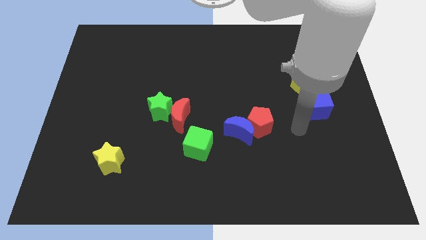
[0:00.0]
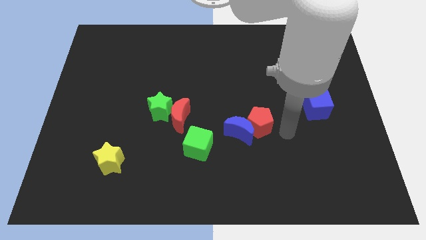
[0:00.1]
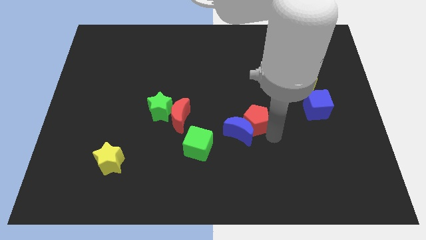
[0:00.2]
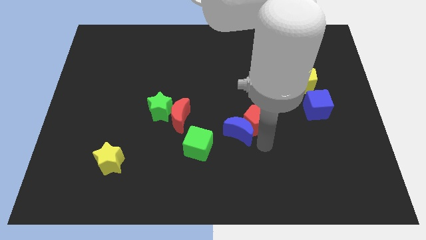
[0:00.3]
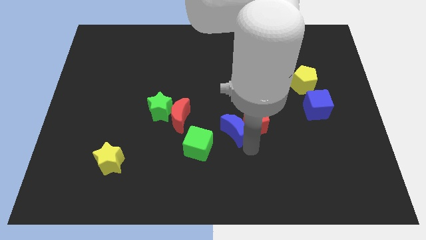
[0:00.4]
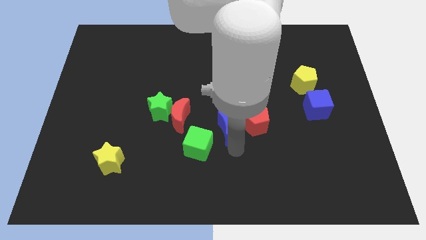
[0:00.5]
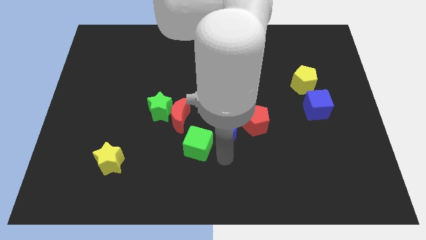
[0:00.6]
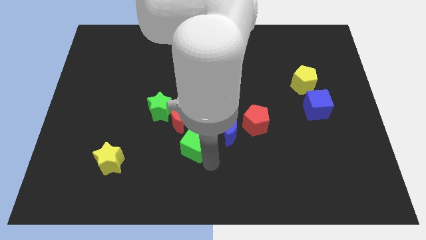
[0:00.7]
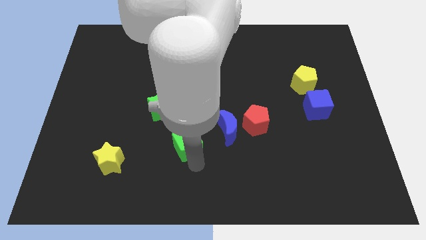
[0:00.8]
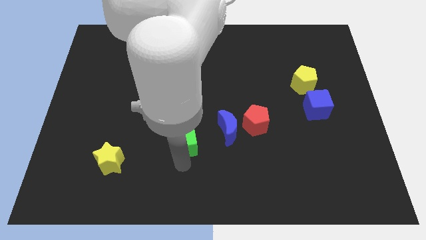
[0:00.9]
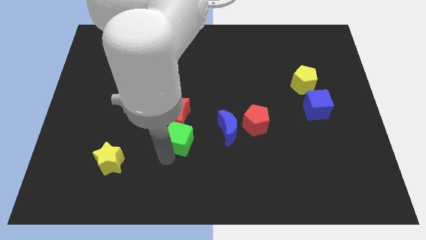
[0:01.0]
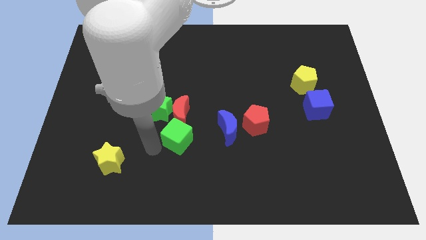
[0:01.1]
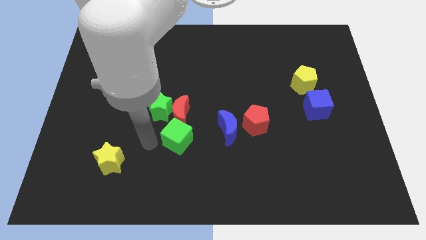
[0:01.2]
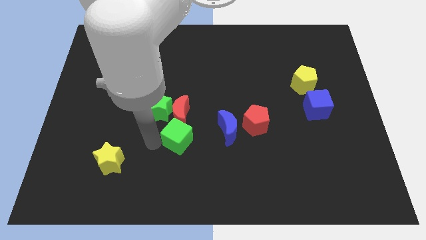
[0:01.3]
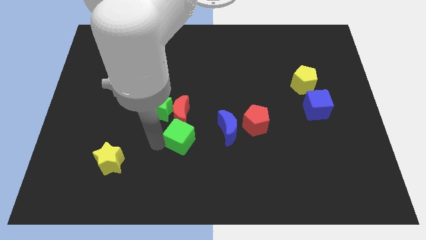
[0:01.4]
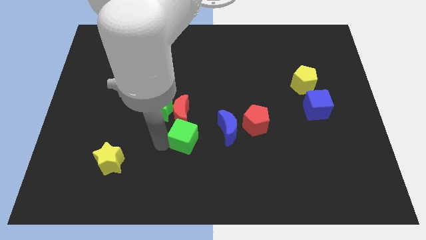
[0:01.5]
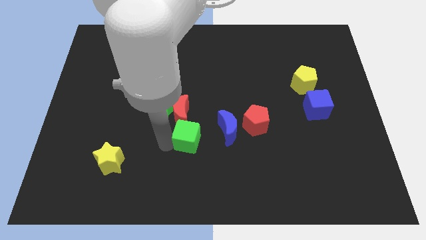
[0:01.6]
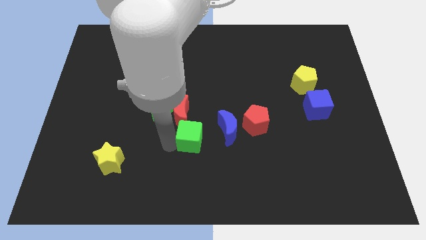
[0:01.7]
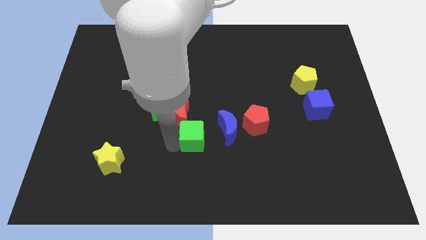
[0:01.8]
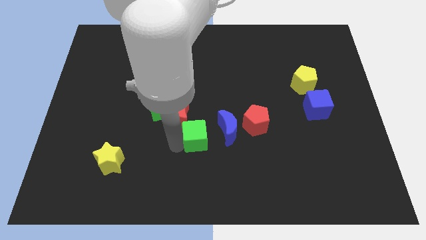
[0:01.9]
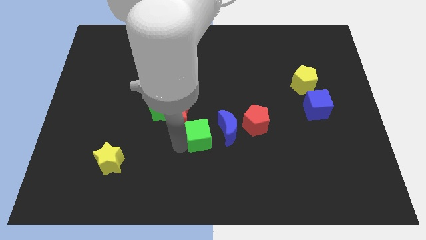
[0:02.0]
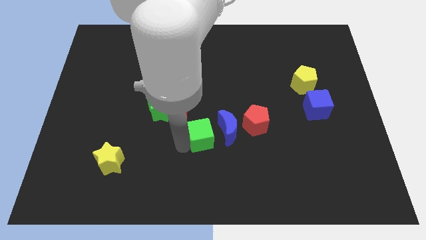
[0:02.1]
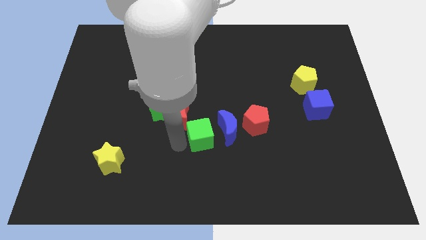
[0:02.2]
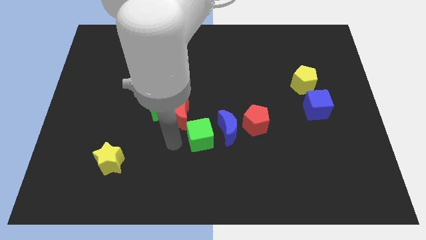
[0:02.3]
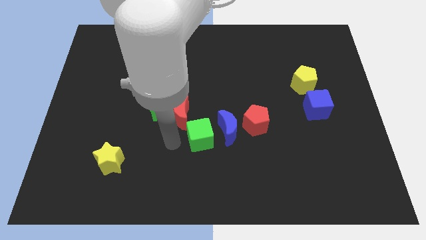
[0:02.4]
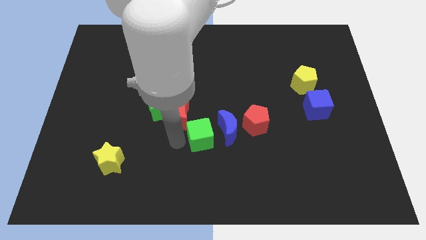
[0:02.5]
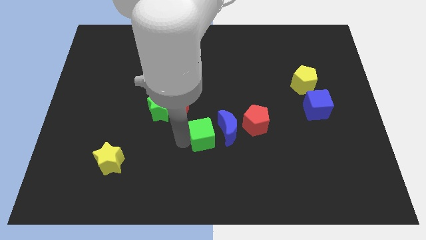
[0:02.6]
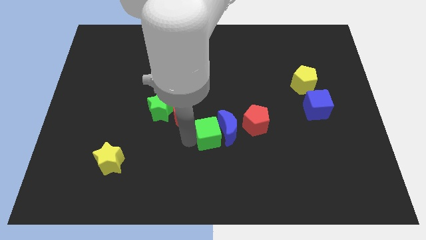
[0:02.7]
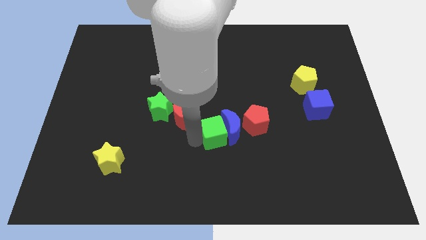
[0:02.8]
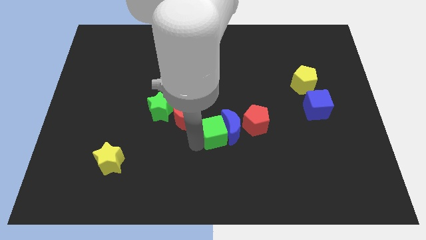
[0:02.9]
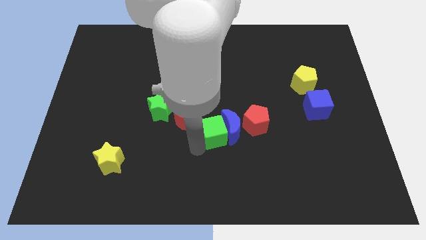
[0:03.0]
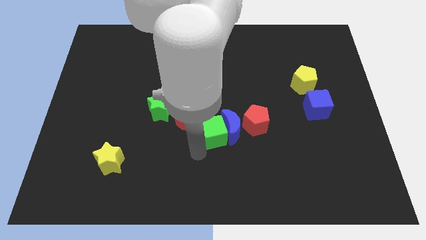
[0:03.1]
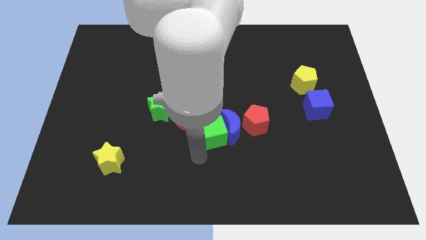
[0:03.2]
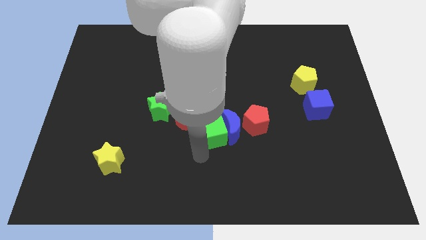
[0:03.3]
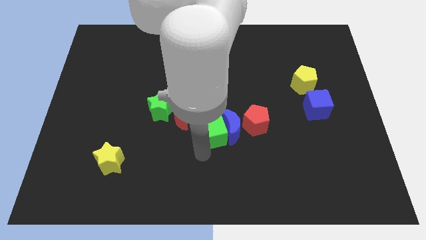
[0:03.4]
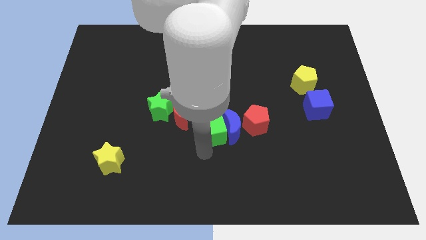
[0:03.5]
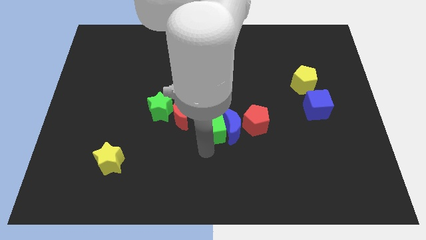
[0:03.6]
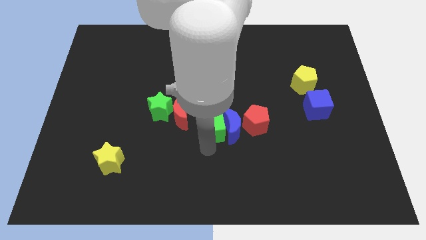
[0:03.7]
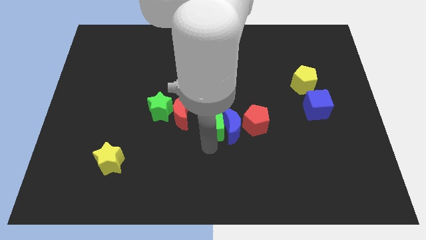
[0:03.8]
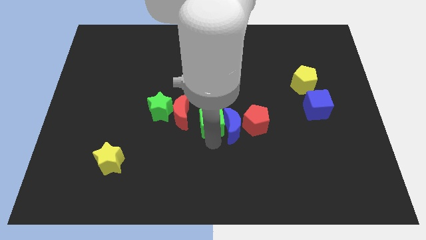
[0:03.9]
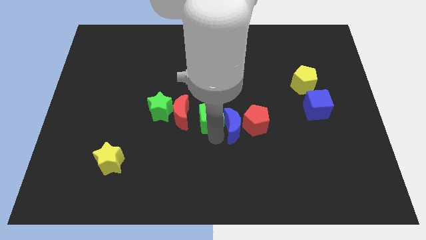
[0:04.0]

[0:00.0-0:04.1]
move the green cube upwards and right diagonally a little bit

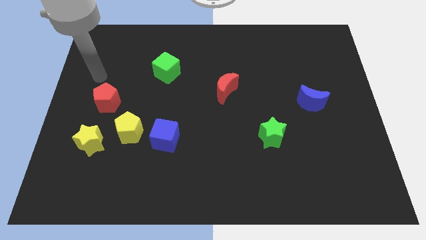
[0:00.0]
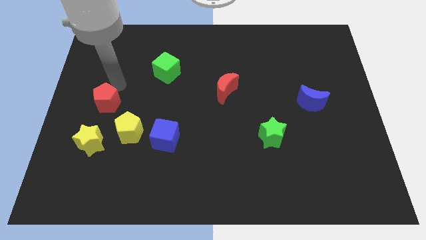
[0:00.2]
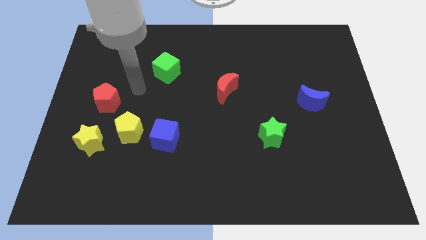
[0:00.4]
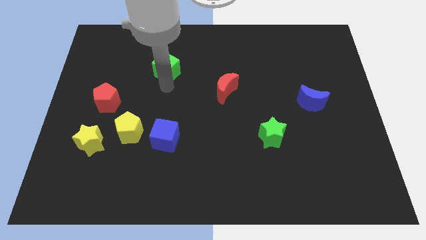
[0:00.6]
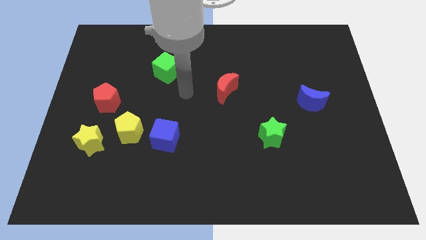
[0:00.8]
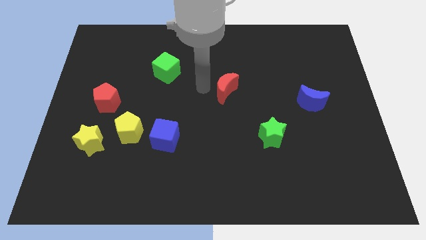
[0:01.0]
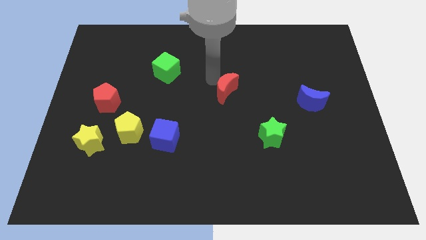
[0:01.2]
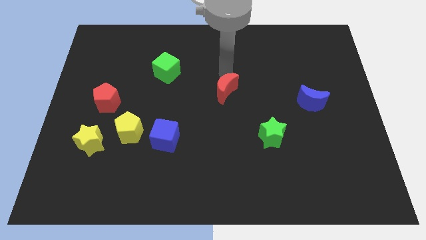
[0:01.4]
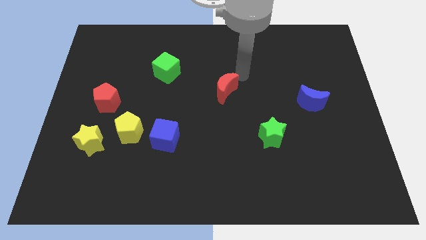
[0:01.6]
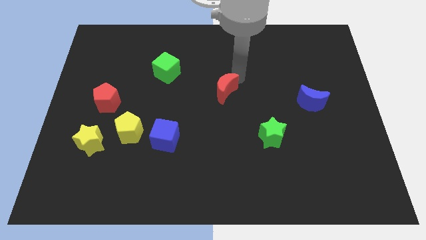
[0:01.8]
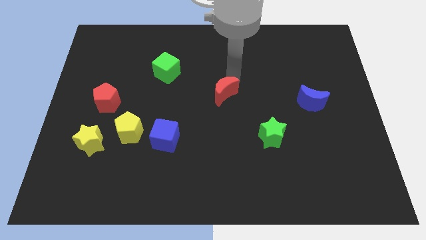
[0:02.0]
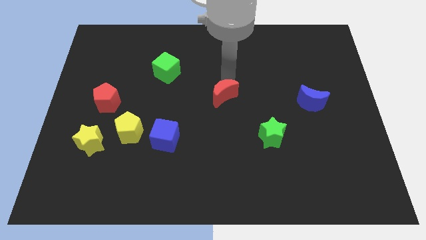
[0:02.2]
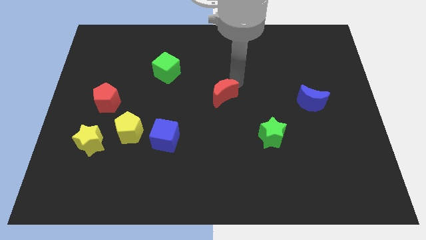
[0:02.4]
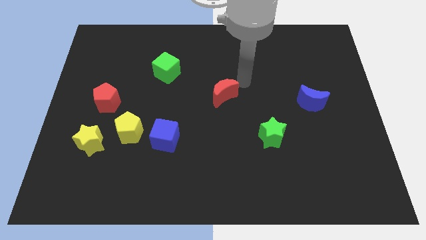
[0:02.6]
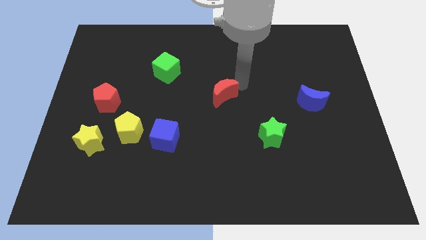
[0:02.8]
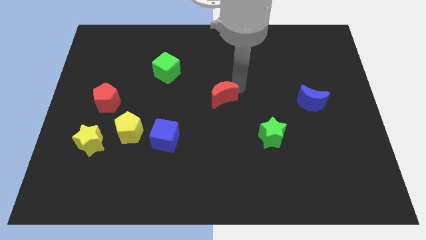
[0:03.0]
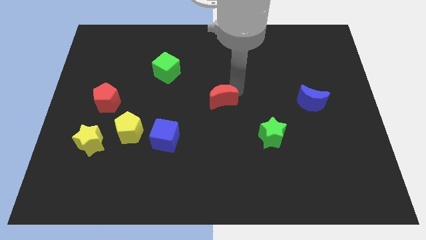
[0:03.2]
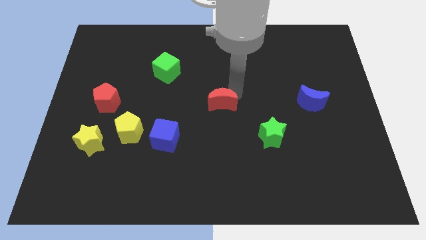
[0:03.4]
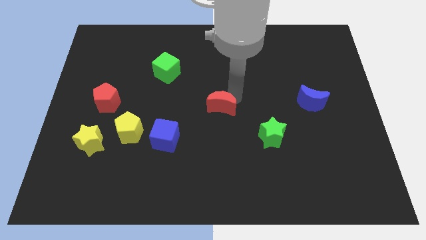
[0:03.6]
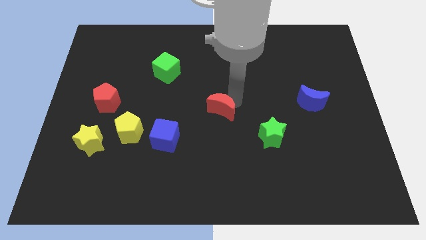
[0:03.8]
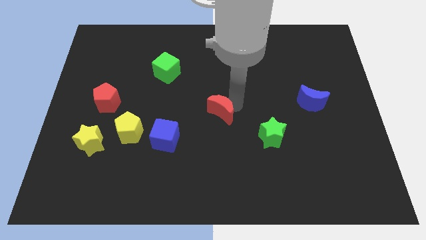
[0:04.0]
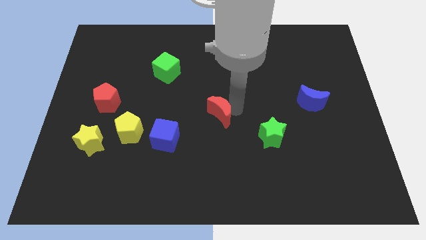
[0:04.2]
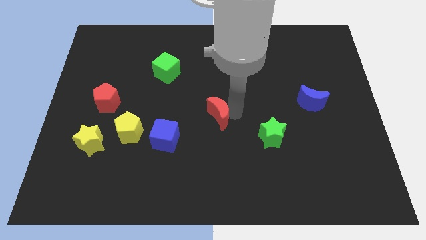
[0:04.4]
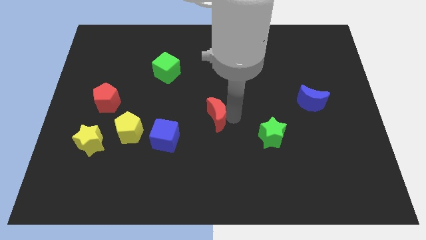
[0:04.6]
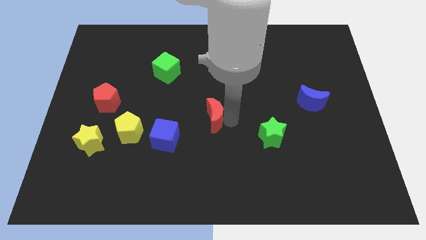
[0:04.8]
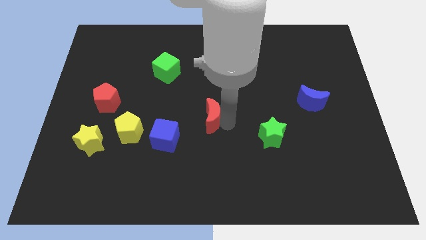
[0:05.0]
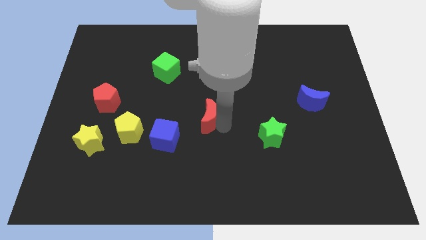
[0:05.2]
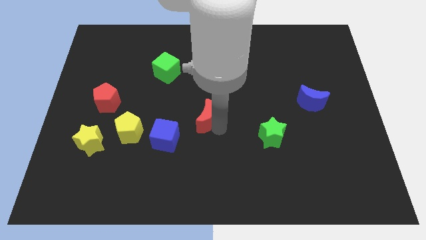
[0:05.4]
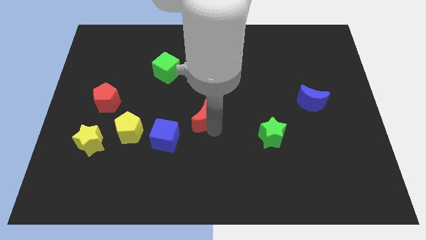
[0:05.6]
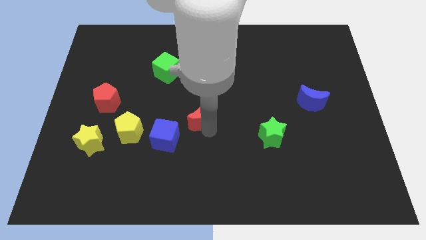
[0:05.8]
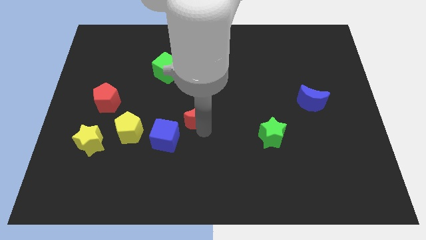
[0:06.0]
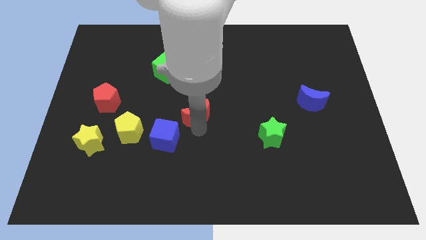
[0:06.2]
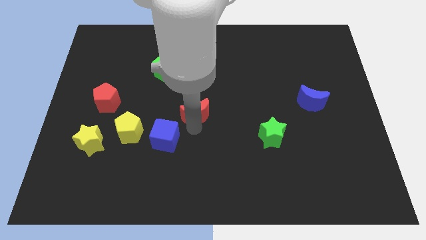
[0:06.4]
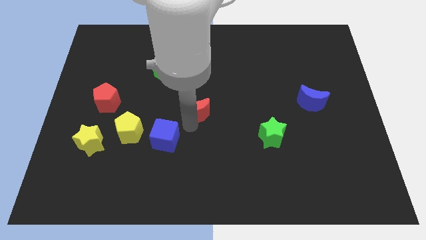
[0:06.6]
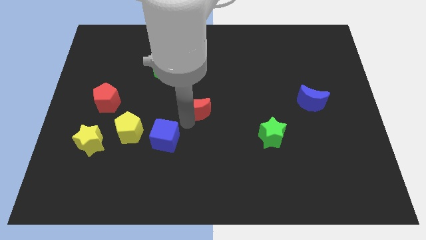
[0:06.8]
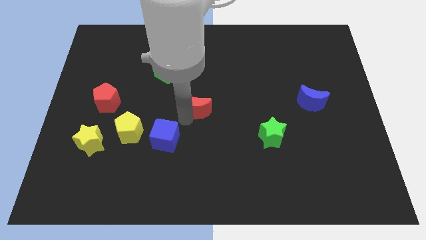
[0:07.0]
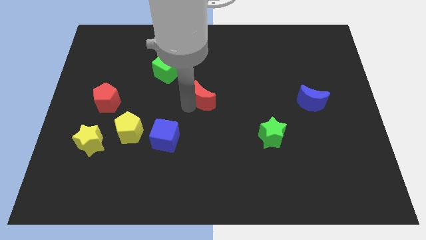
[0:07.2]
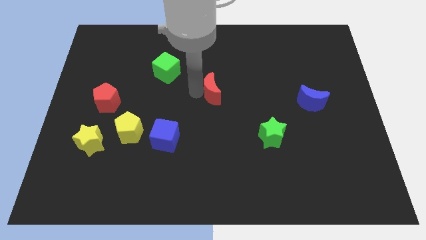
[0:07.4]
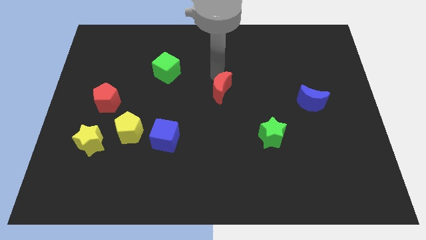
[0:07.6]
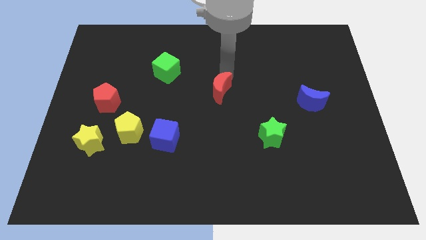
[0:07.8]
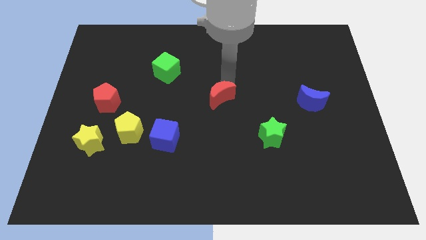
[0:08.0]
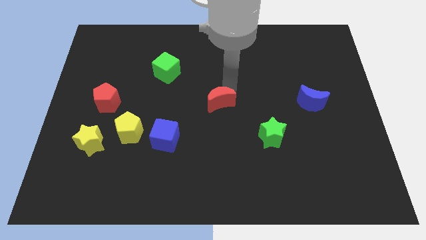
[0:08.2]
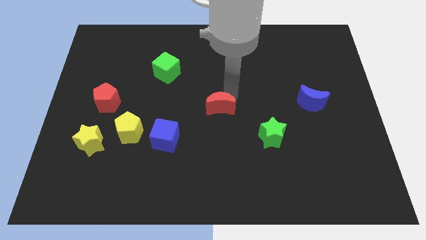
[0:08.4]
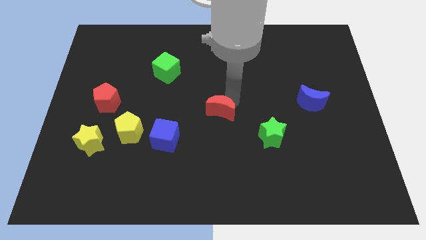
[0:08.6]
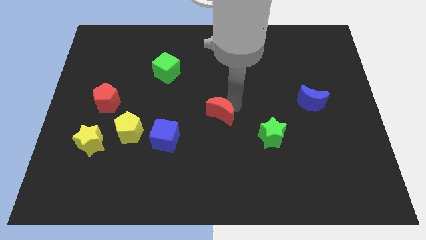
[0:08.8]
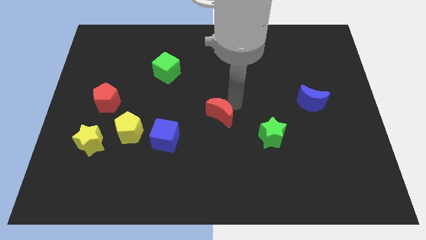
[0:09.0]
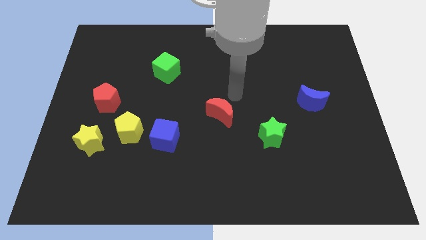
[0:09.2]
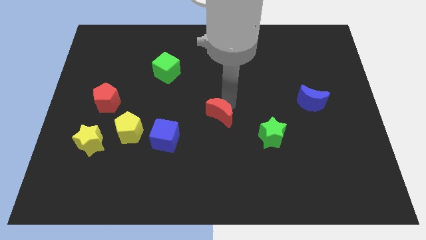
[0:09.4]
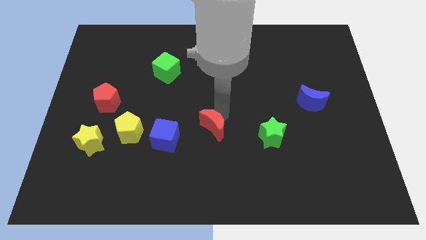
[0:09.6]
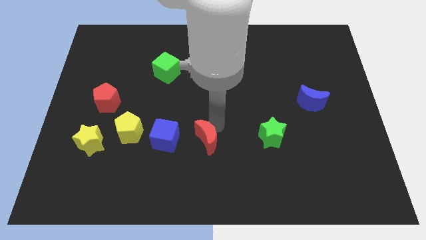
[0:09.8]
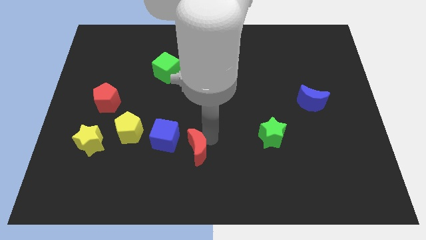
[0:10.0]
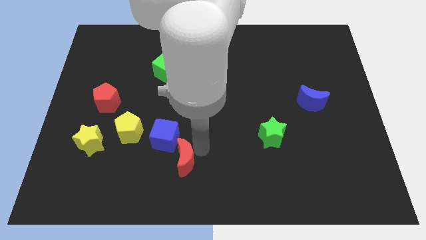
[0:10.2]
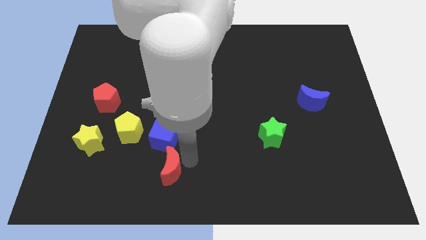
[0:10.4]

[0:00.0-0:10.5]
slide the red moon down and then left
